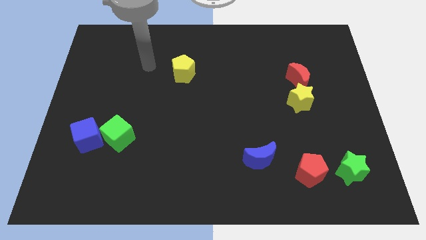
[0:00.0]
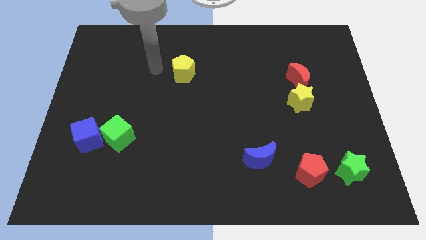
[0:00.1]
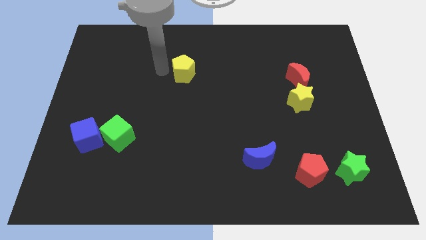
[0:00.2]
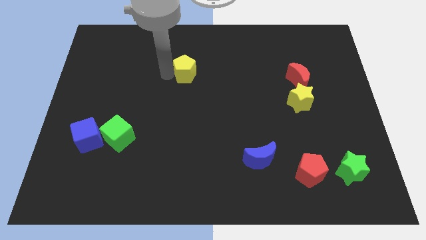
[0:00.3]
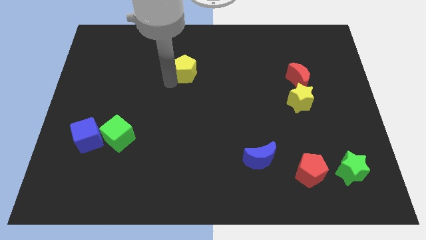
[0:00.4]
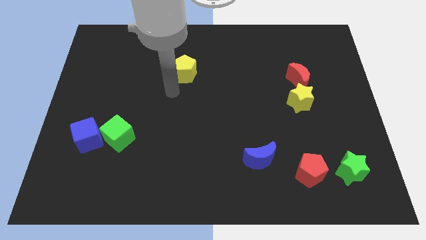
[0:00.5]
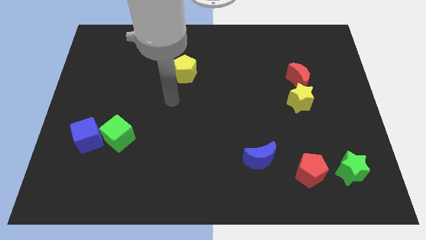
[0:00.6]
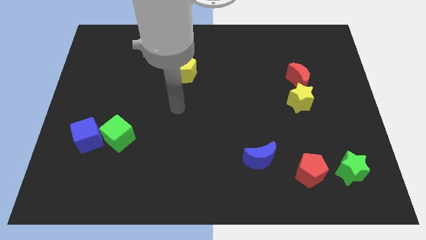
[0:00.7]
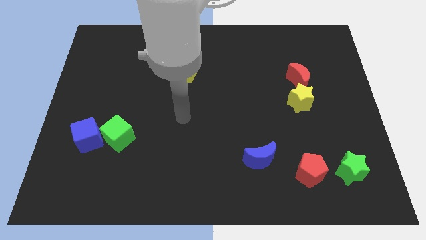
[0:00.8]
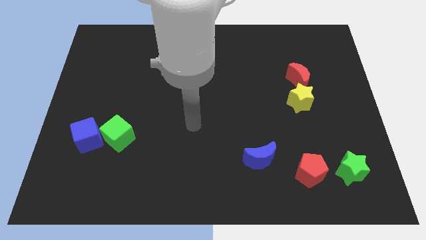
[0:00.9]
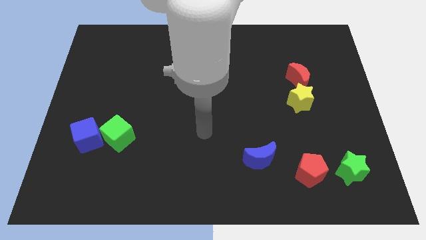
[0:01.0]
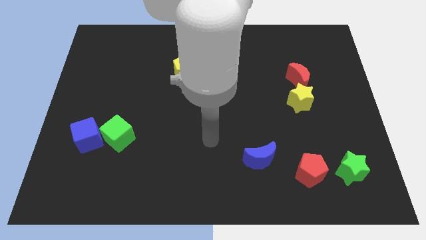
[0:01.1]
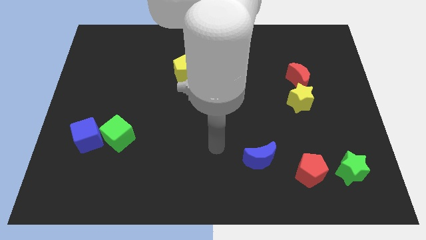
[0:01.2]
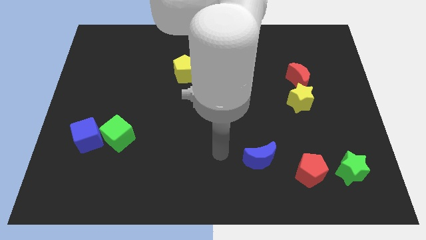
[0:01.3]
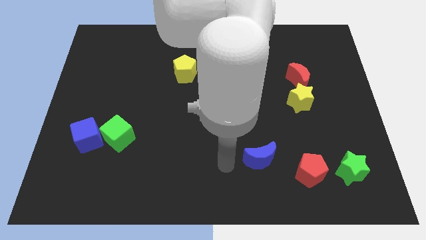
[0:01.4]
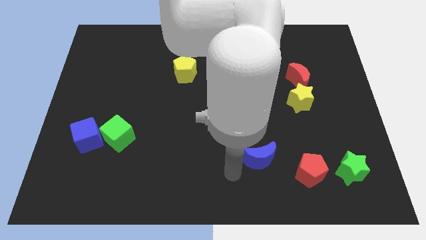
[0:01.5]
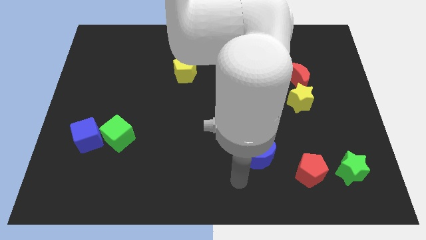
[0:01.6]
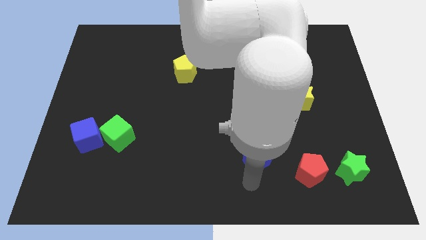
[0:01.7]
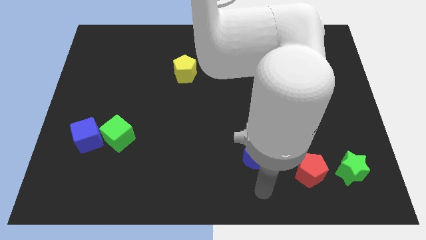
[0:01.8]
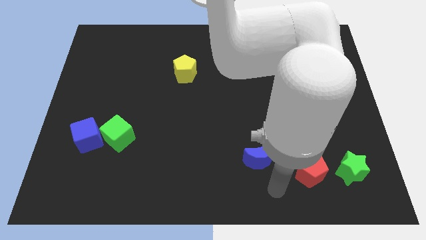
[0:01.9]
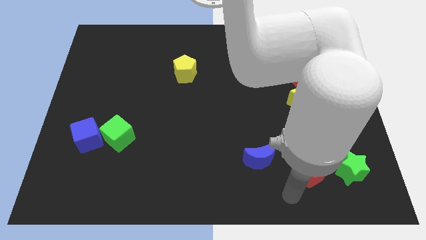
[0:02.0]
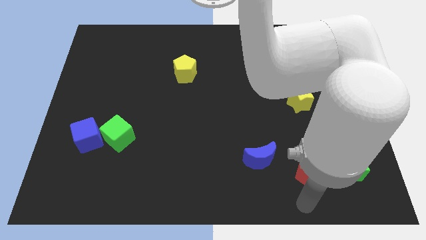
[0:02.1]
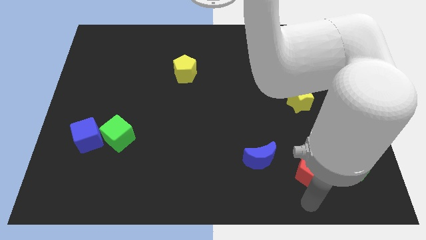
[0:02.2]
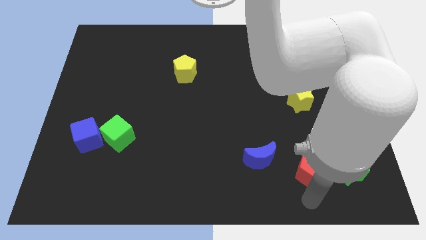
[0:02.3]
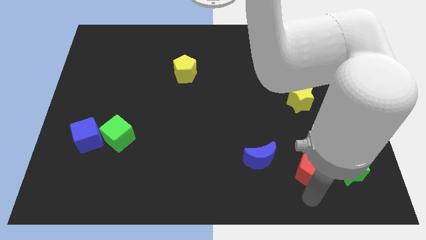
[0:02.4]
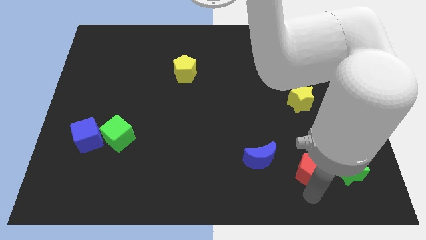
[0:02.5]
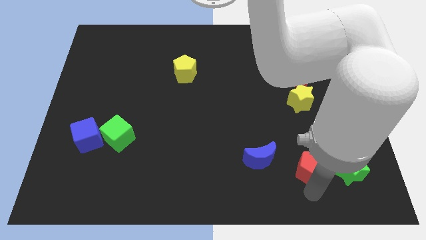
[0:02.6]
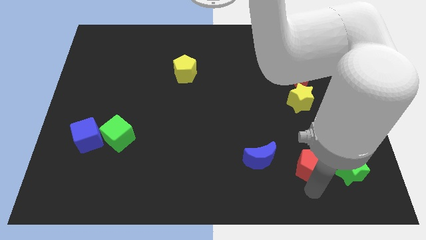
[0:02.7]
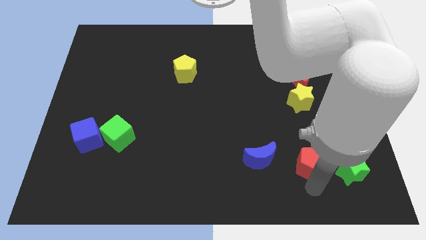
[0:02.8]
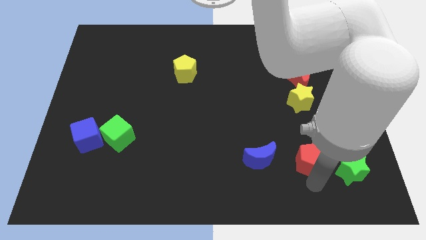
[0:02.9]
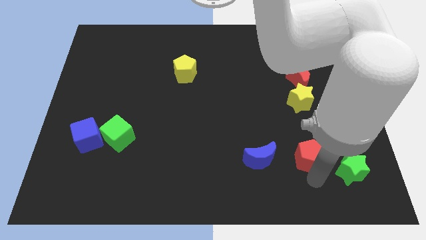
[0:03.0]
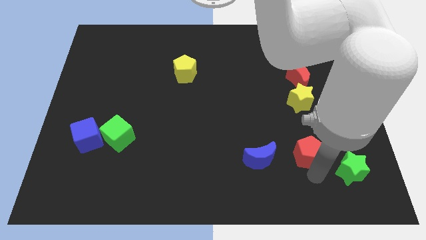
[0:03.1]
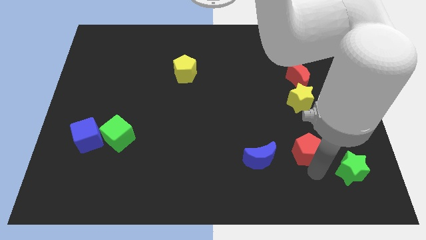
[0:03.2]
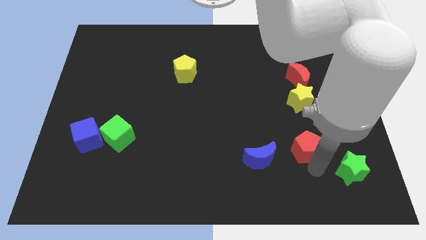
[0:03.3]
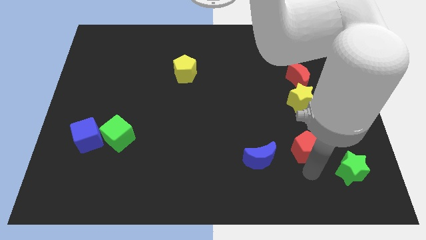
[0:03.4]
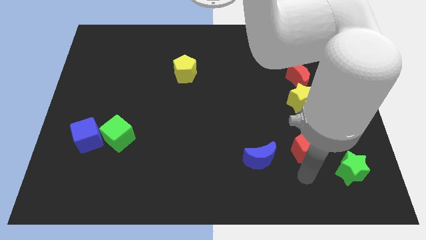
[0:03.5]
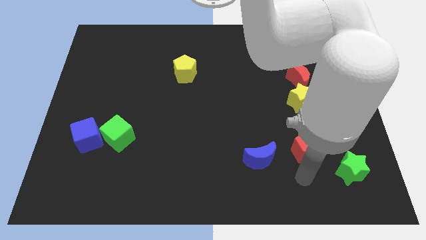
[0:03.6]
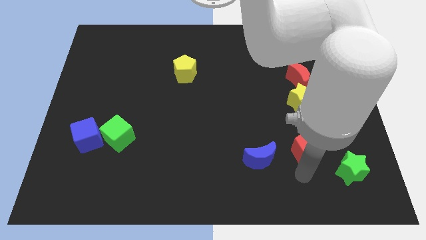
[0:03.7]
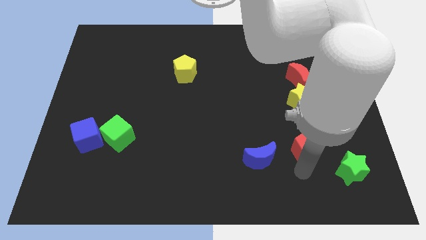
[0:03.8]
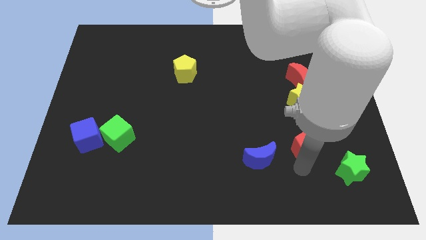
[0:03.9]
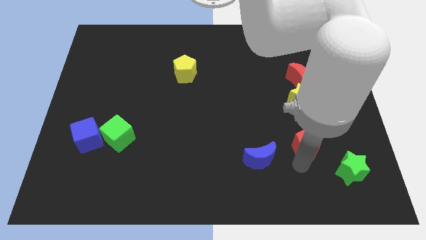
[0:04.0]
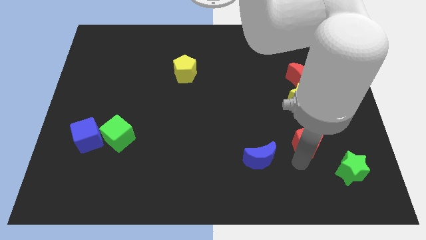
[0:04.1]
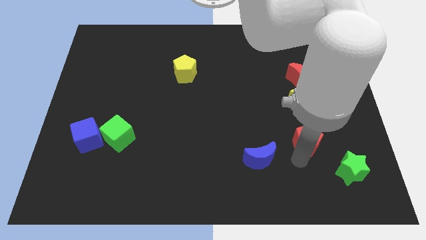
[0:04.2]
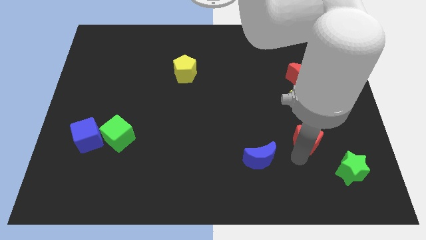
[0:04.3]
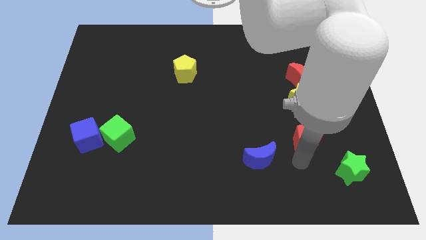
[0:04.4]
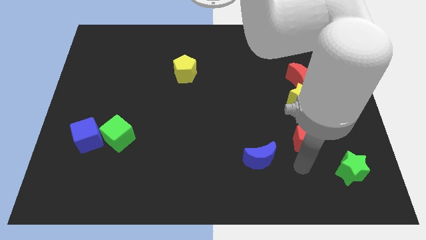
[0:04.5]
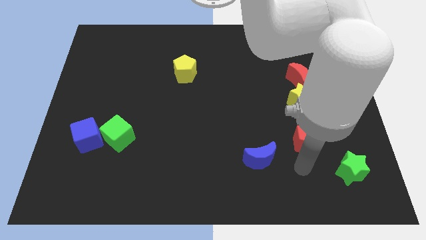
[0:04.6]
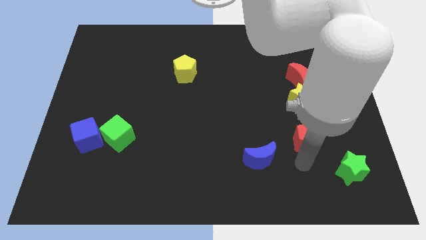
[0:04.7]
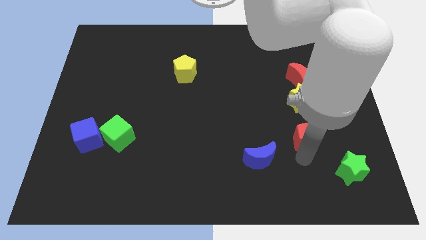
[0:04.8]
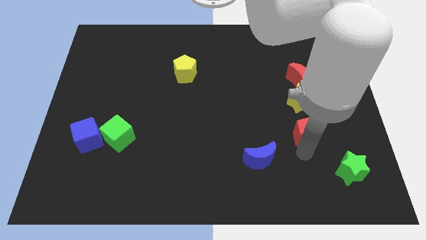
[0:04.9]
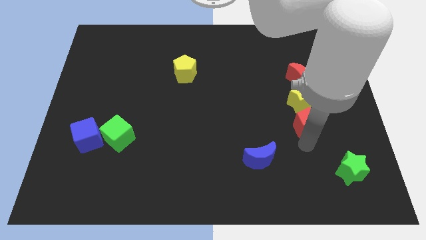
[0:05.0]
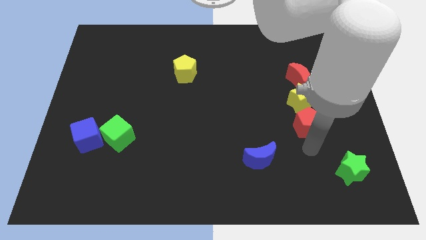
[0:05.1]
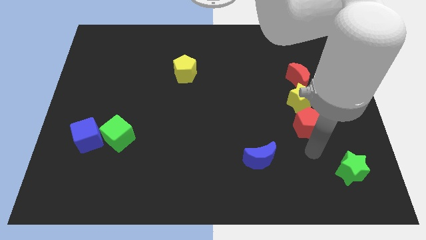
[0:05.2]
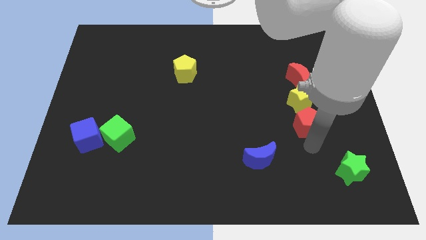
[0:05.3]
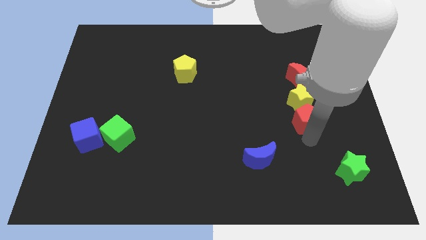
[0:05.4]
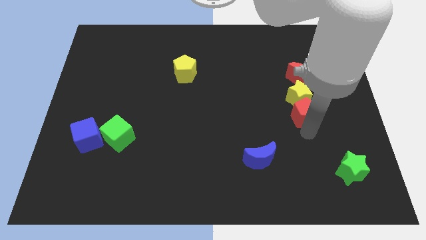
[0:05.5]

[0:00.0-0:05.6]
move the red pentagon close to the yellow star

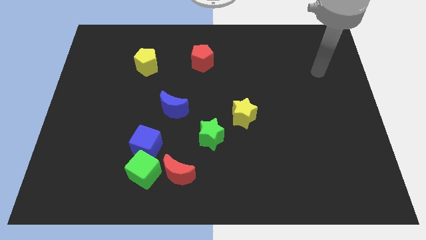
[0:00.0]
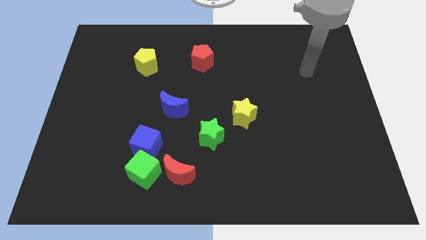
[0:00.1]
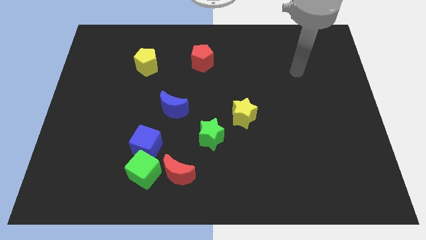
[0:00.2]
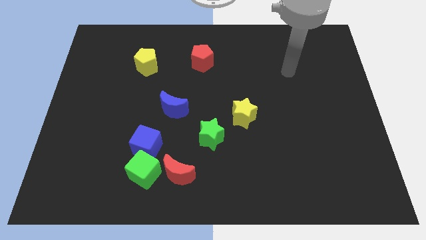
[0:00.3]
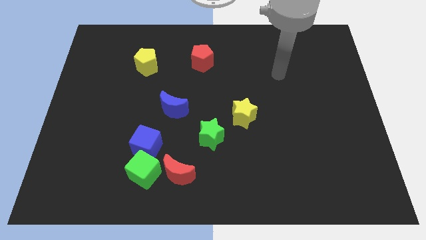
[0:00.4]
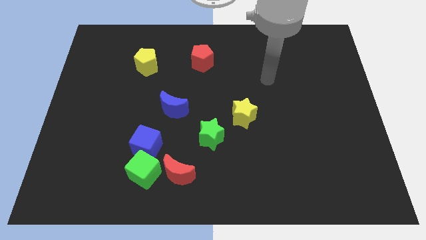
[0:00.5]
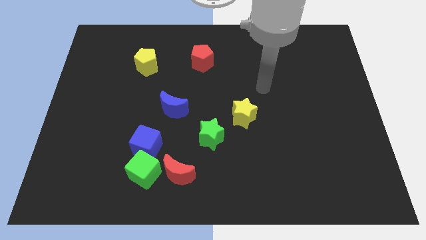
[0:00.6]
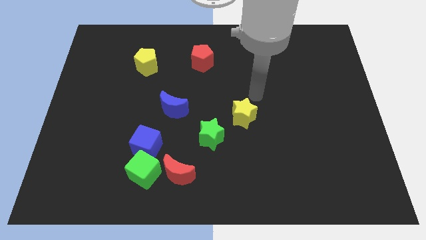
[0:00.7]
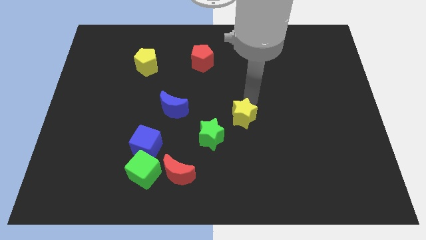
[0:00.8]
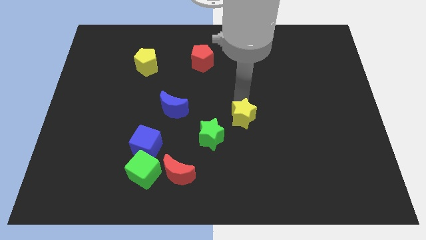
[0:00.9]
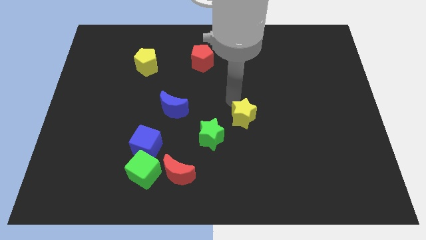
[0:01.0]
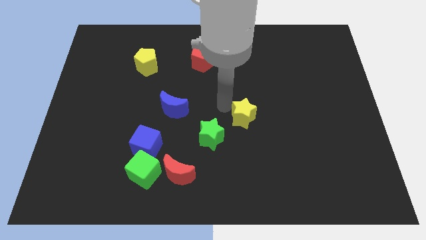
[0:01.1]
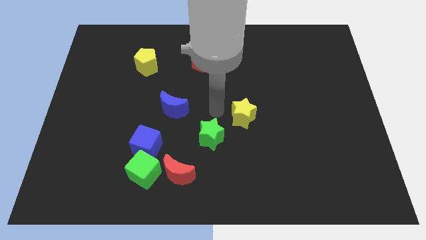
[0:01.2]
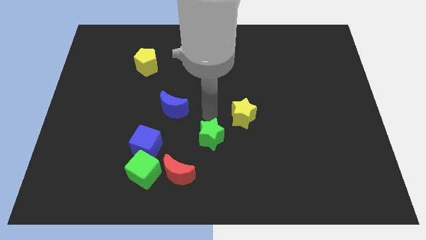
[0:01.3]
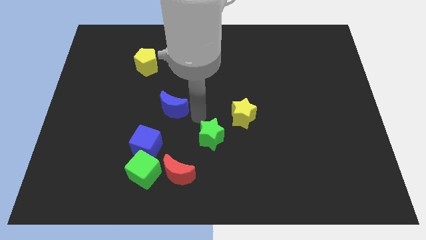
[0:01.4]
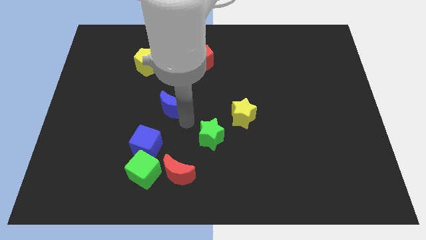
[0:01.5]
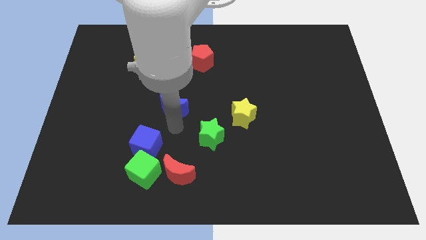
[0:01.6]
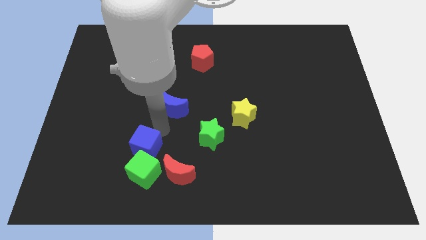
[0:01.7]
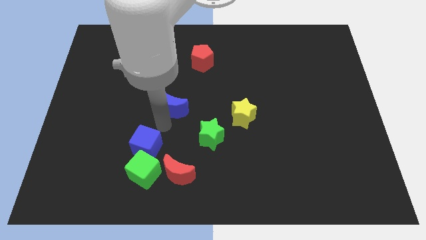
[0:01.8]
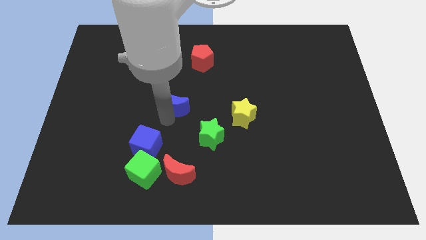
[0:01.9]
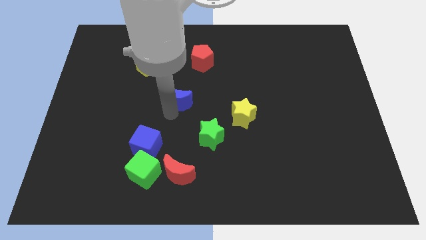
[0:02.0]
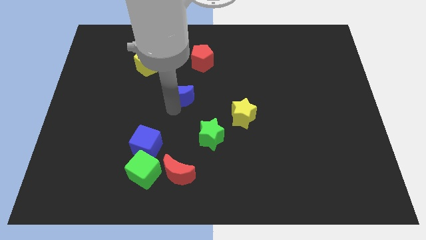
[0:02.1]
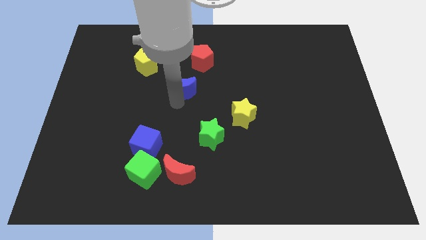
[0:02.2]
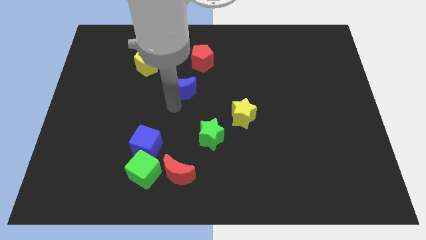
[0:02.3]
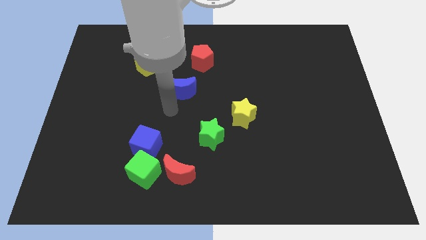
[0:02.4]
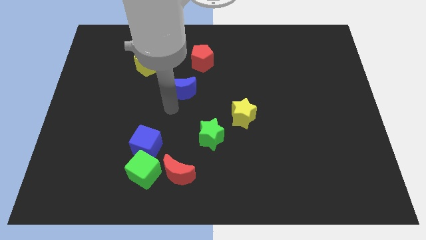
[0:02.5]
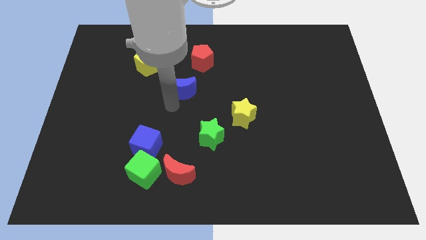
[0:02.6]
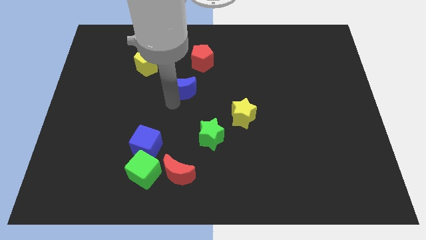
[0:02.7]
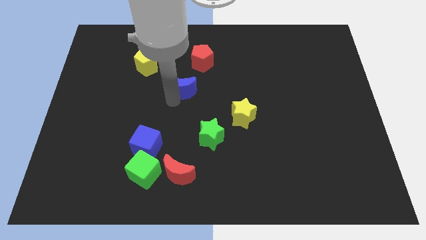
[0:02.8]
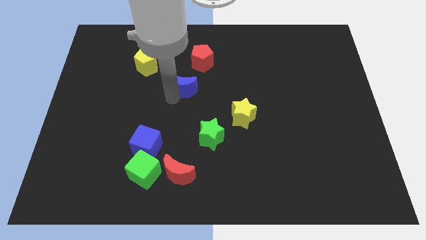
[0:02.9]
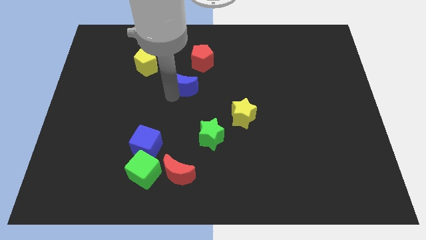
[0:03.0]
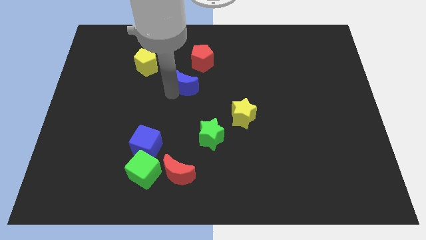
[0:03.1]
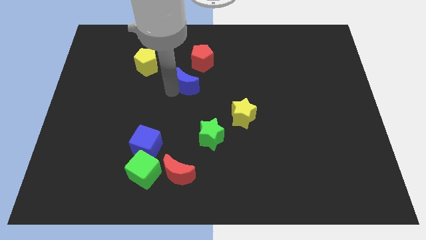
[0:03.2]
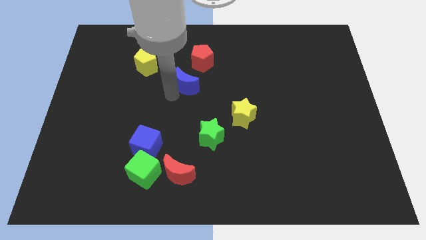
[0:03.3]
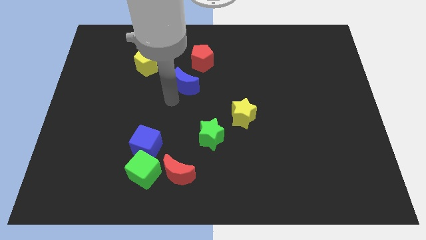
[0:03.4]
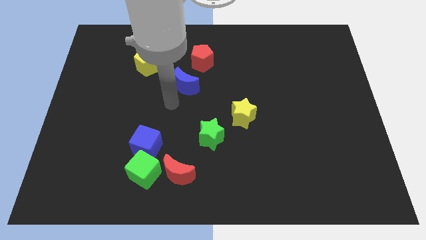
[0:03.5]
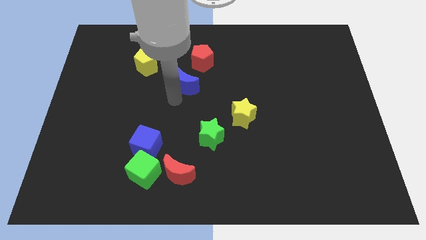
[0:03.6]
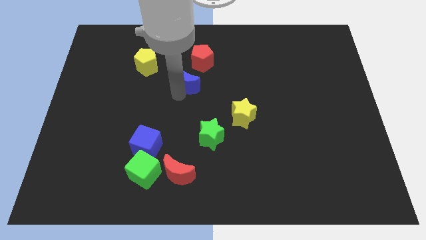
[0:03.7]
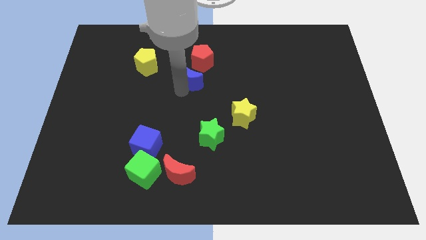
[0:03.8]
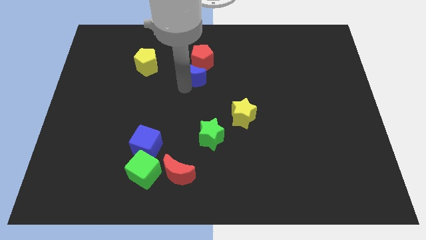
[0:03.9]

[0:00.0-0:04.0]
push the blue moon next to the red pentagon
